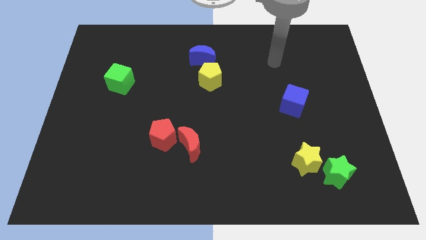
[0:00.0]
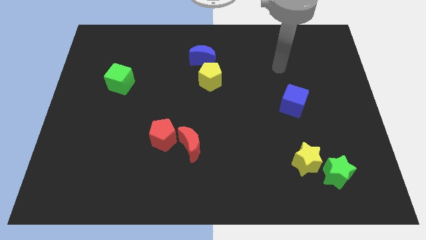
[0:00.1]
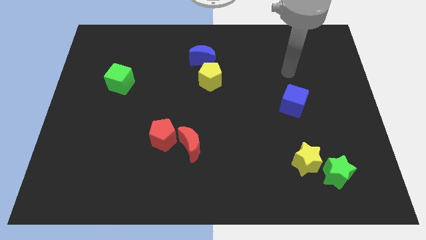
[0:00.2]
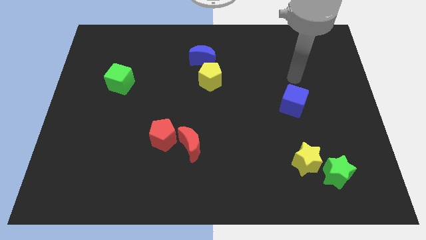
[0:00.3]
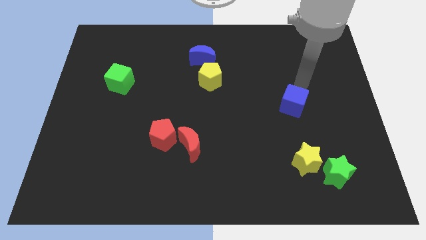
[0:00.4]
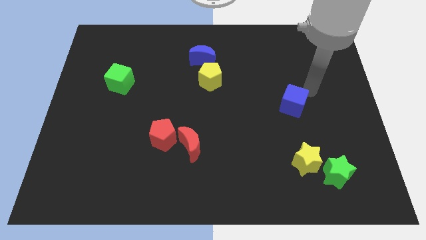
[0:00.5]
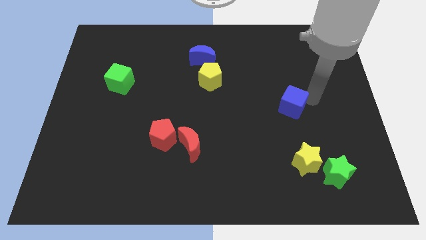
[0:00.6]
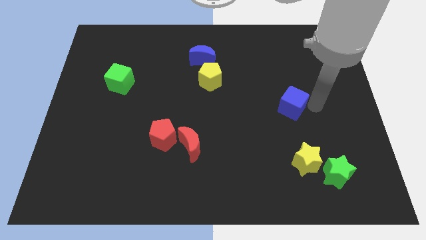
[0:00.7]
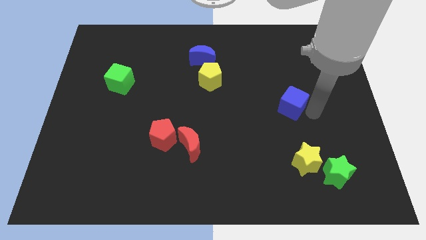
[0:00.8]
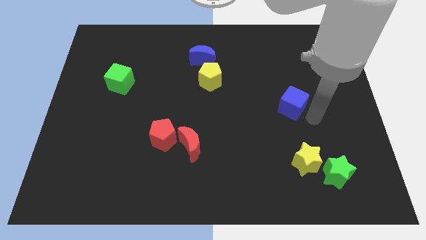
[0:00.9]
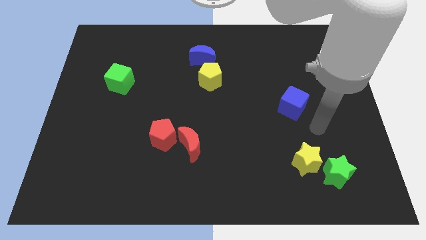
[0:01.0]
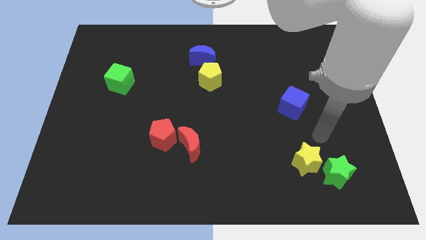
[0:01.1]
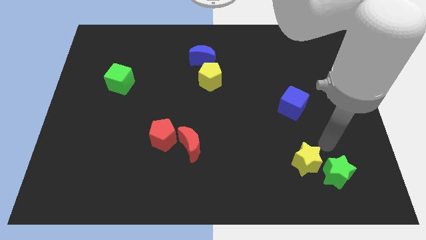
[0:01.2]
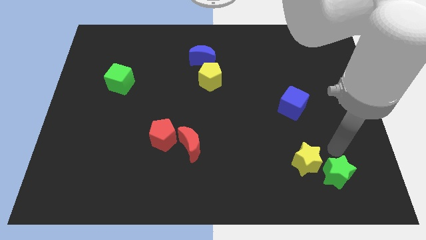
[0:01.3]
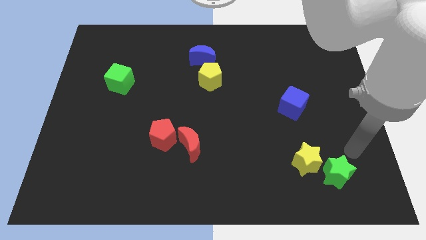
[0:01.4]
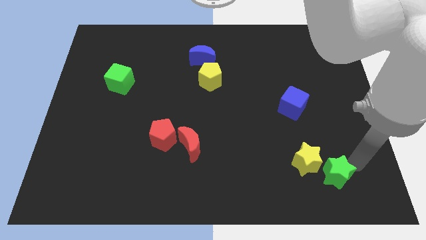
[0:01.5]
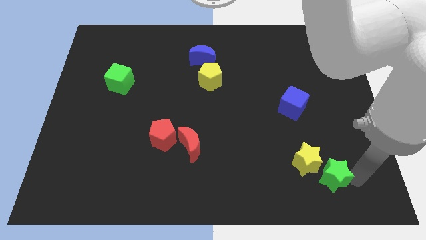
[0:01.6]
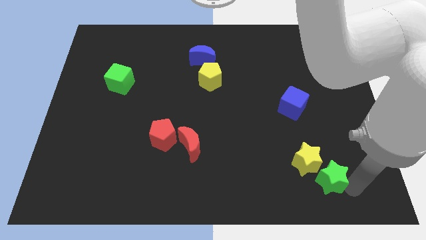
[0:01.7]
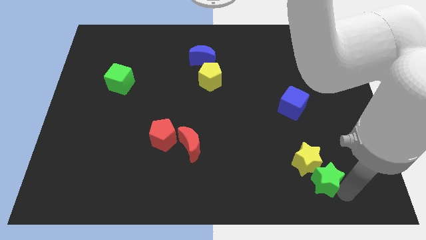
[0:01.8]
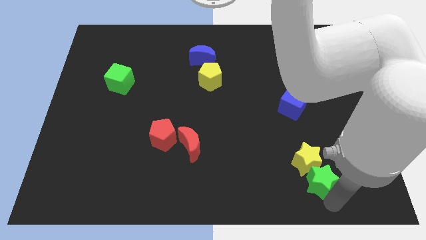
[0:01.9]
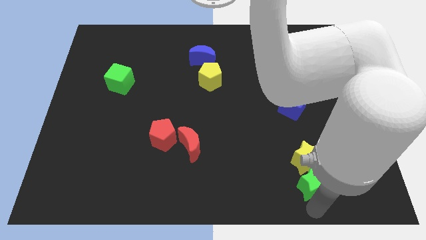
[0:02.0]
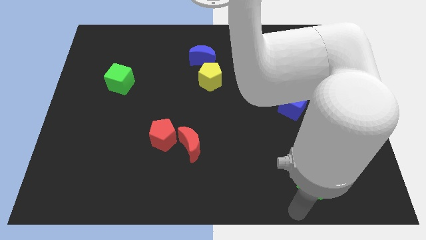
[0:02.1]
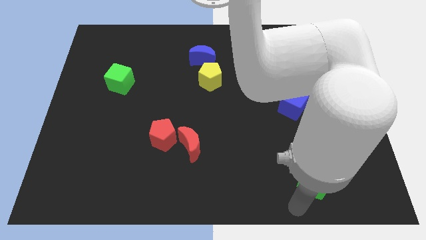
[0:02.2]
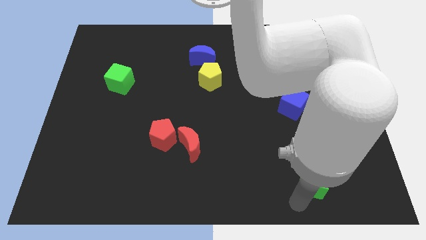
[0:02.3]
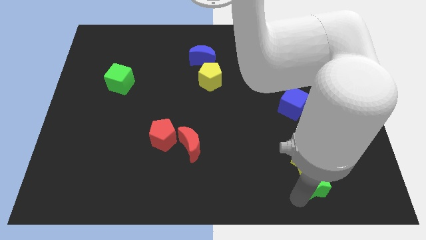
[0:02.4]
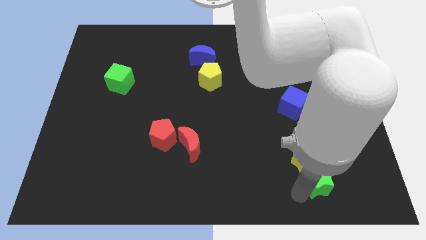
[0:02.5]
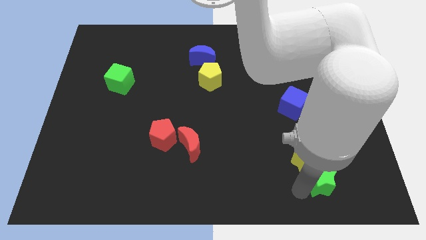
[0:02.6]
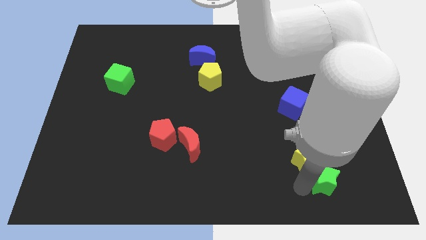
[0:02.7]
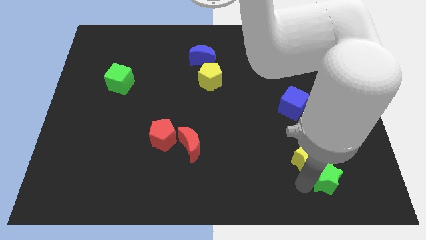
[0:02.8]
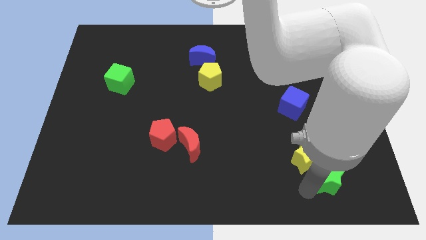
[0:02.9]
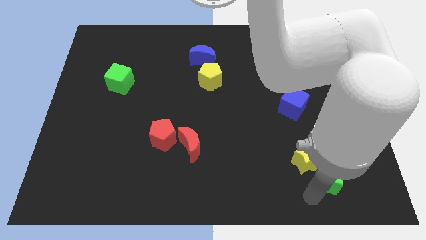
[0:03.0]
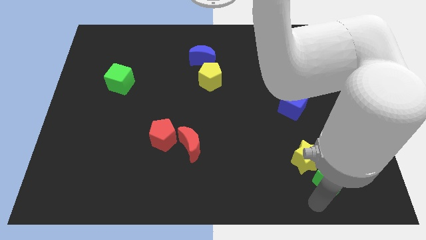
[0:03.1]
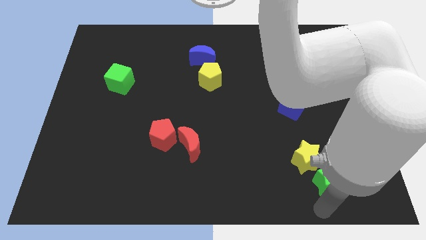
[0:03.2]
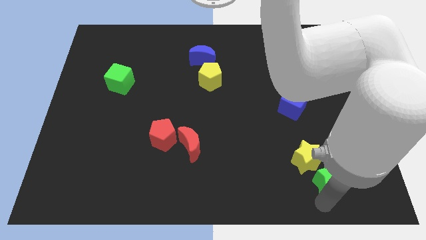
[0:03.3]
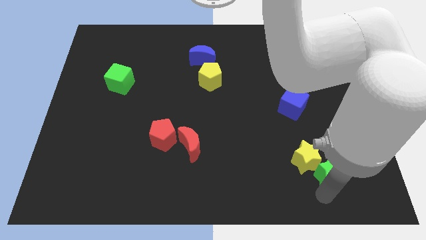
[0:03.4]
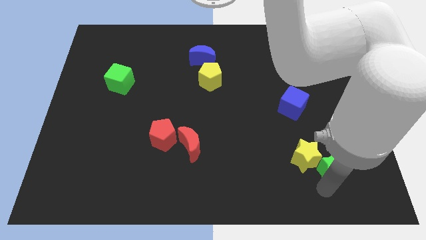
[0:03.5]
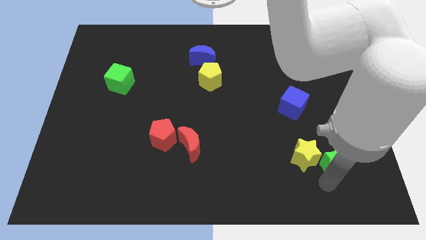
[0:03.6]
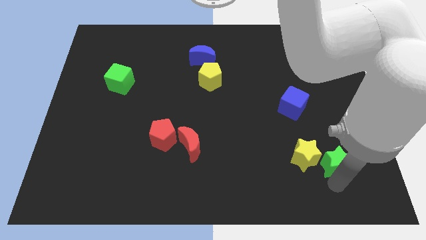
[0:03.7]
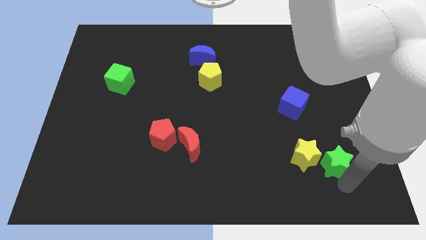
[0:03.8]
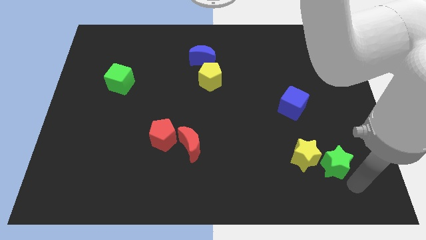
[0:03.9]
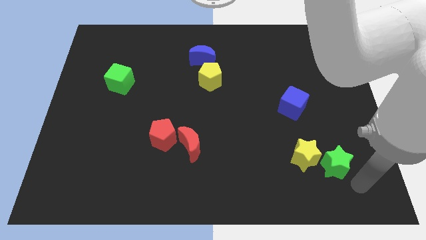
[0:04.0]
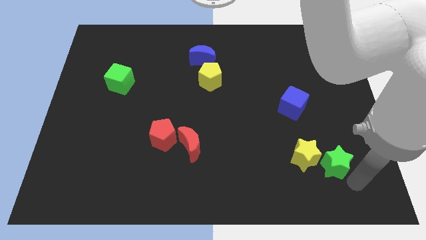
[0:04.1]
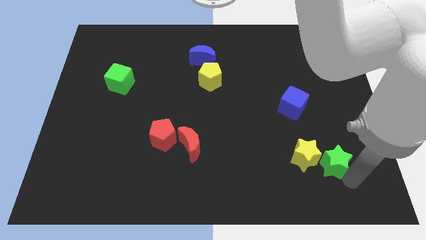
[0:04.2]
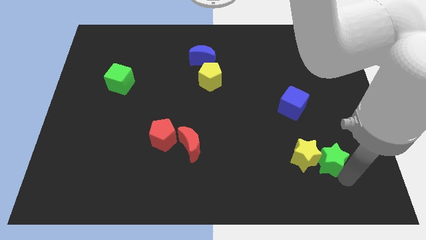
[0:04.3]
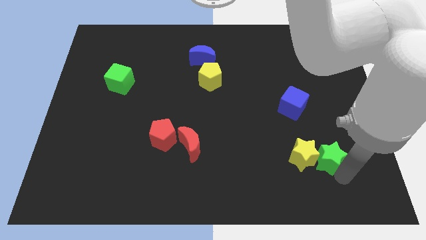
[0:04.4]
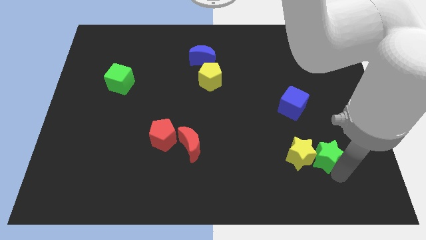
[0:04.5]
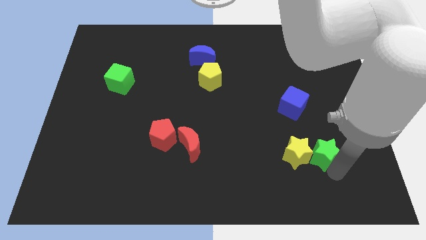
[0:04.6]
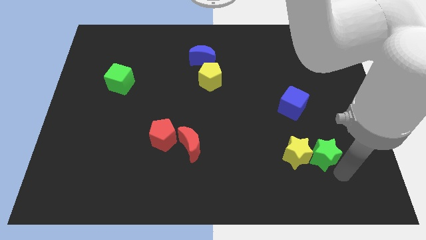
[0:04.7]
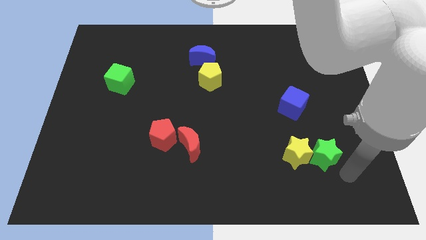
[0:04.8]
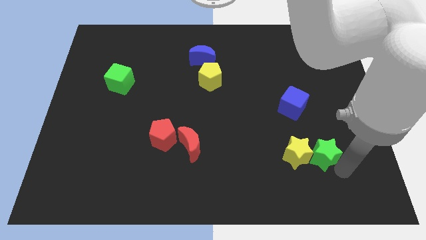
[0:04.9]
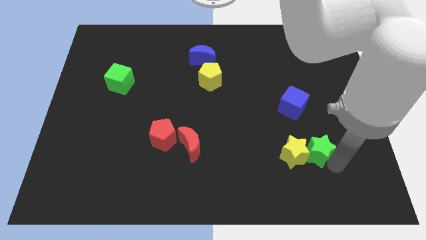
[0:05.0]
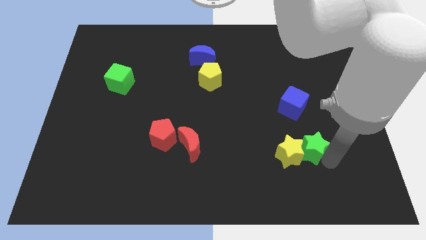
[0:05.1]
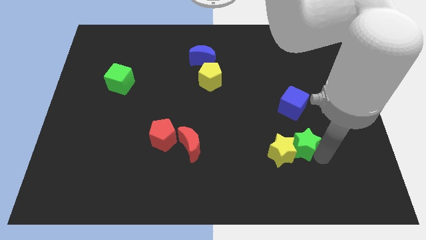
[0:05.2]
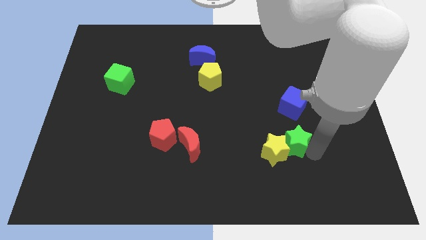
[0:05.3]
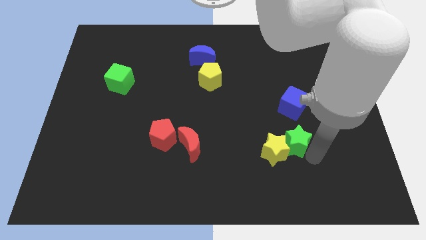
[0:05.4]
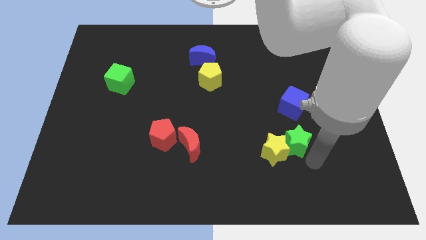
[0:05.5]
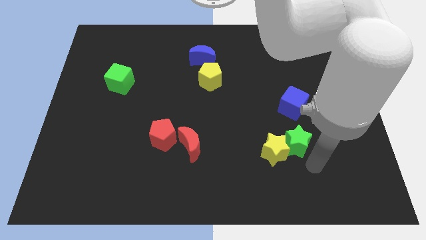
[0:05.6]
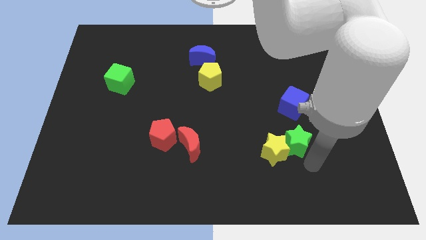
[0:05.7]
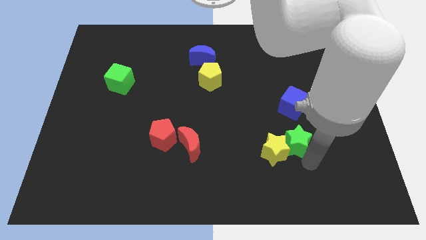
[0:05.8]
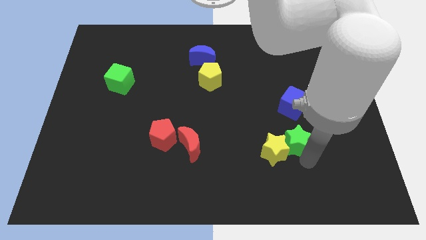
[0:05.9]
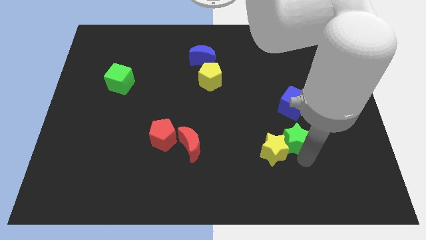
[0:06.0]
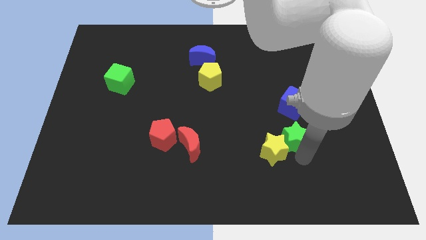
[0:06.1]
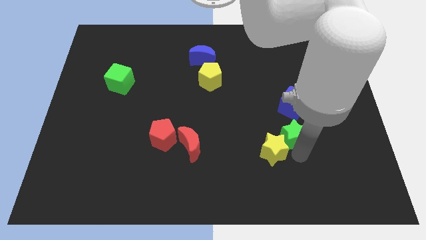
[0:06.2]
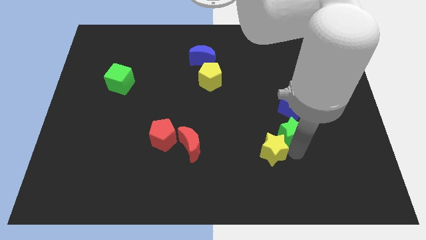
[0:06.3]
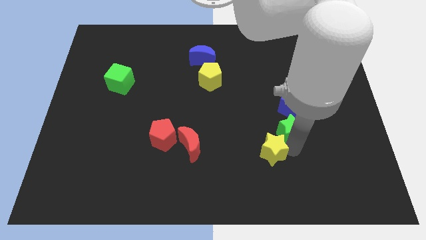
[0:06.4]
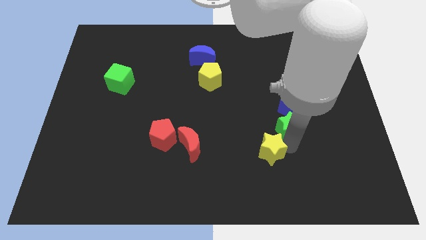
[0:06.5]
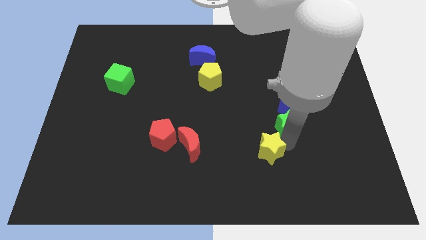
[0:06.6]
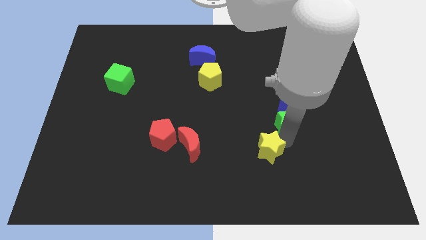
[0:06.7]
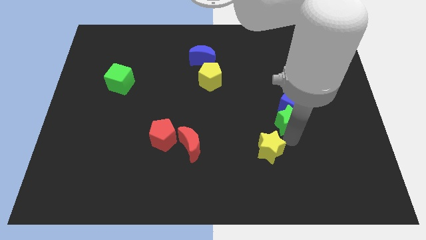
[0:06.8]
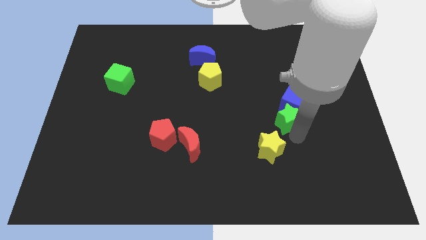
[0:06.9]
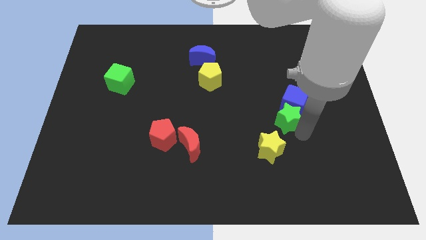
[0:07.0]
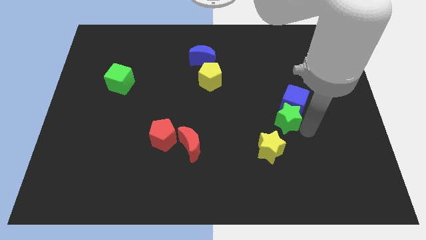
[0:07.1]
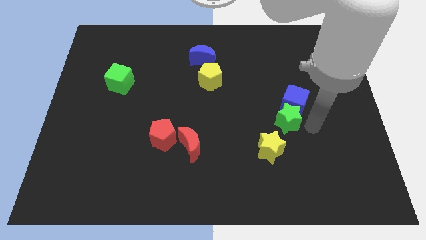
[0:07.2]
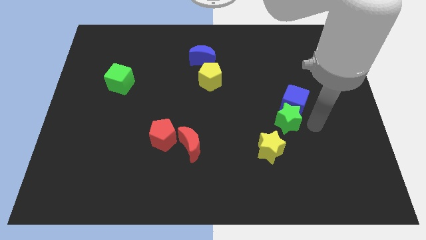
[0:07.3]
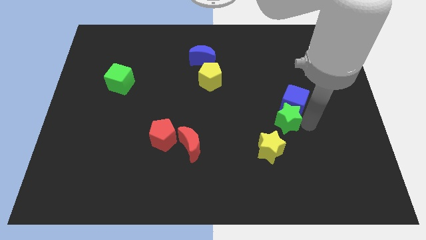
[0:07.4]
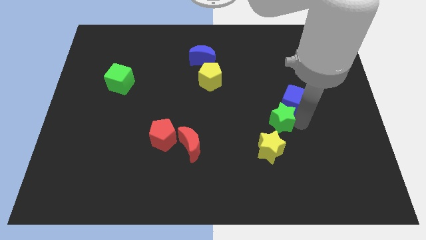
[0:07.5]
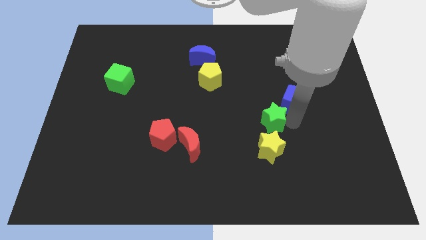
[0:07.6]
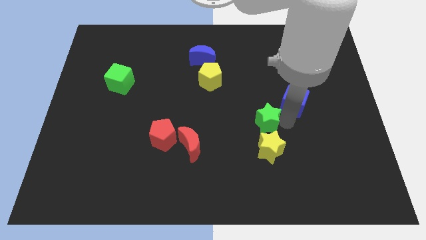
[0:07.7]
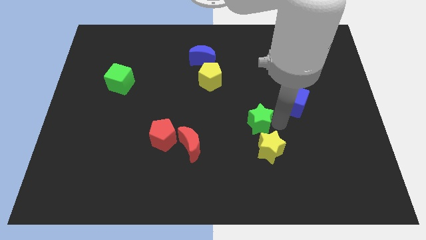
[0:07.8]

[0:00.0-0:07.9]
slide the green star upwards and to the left
